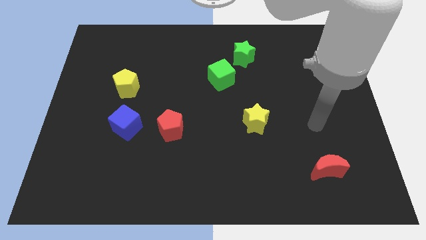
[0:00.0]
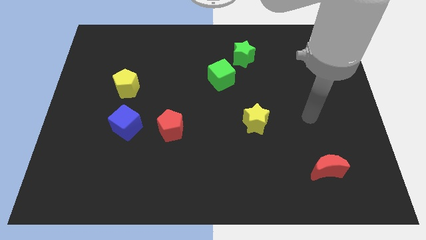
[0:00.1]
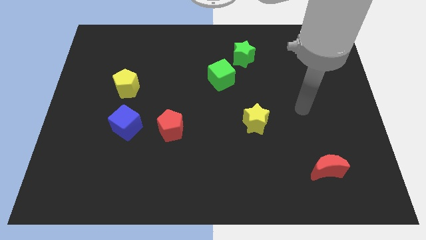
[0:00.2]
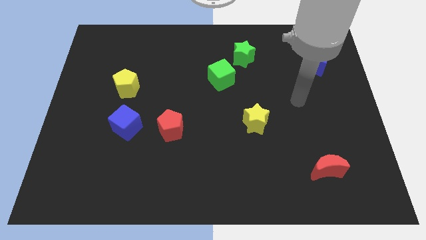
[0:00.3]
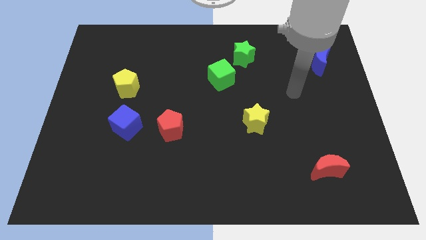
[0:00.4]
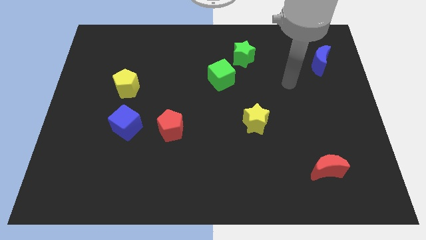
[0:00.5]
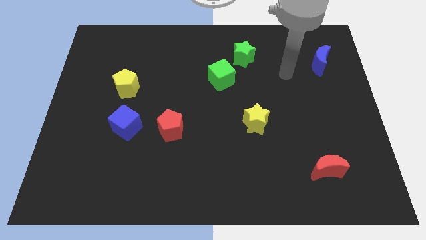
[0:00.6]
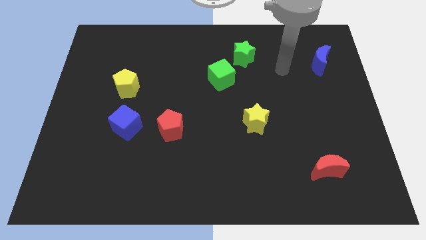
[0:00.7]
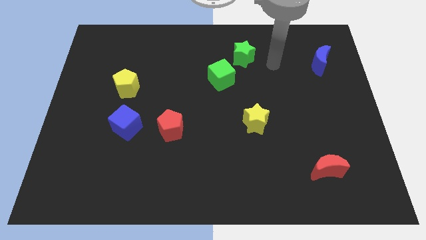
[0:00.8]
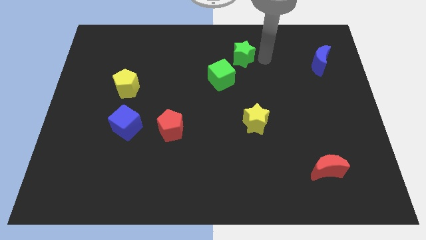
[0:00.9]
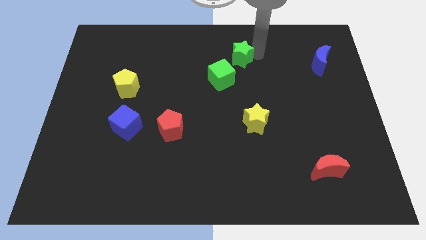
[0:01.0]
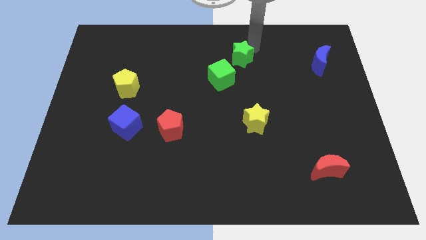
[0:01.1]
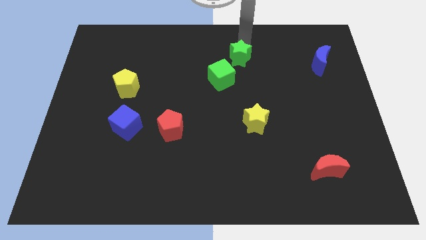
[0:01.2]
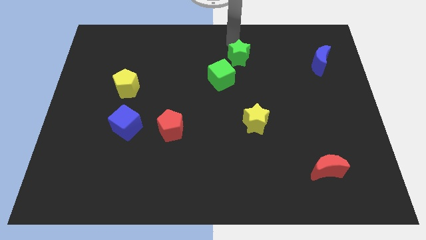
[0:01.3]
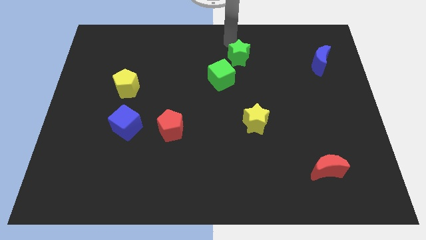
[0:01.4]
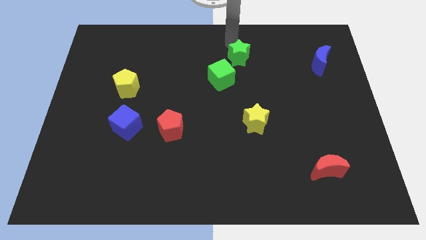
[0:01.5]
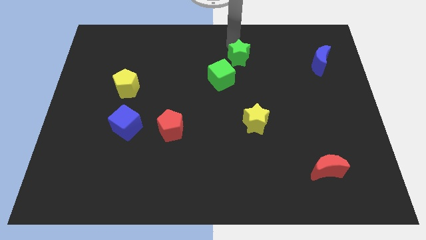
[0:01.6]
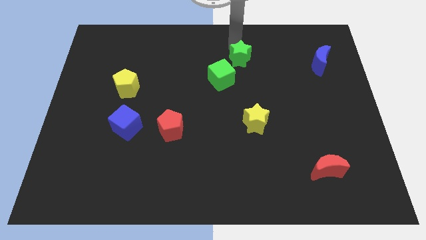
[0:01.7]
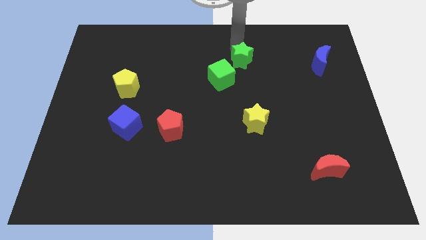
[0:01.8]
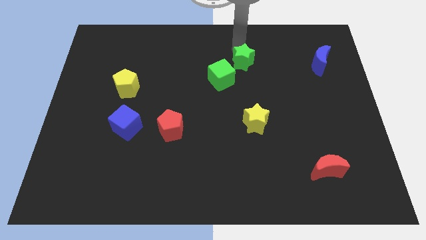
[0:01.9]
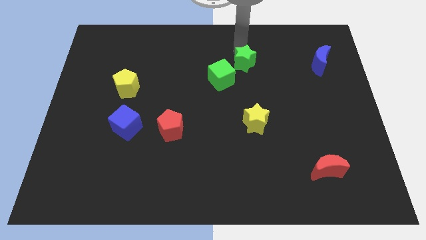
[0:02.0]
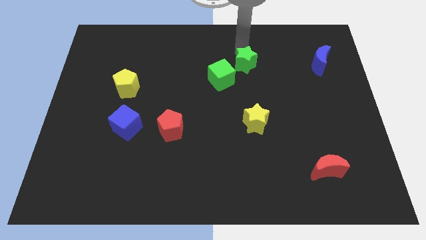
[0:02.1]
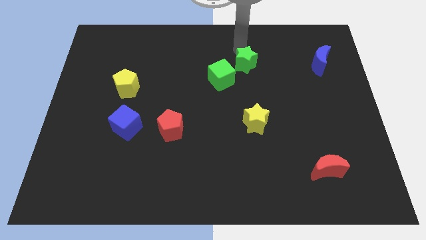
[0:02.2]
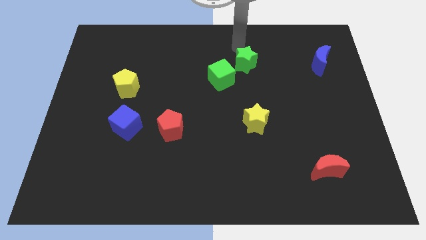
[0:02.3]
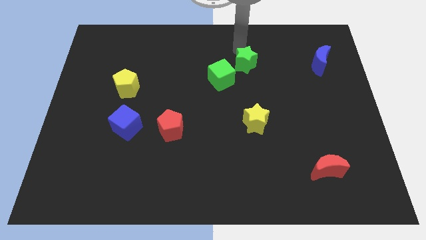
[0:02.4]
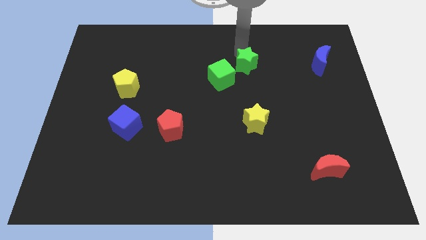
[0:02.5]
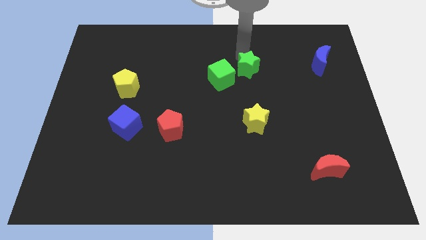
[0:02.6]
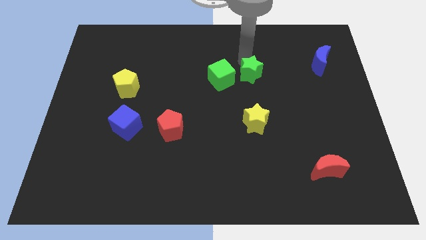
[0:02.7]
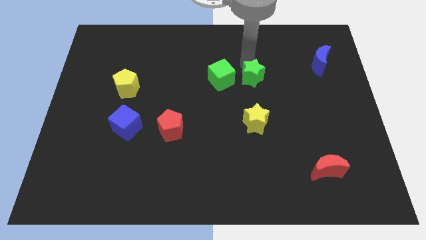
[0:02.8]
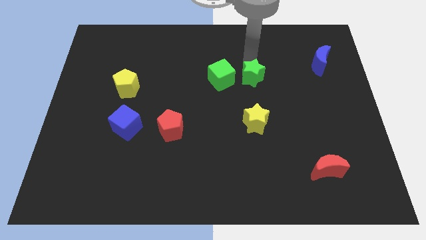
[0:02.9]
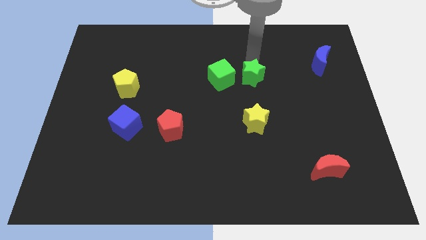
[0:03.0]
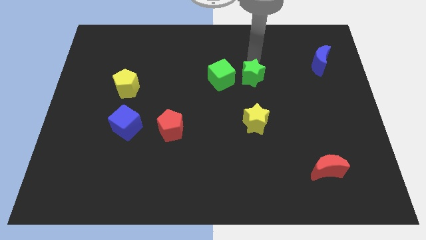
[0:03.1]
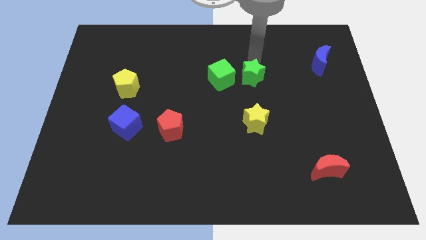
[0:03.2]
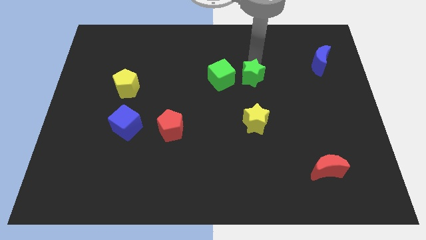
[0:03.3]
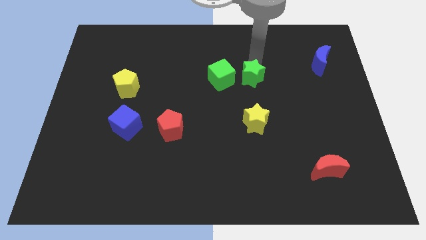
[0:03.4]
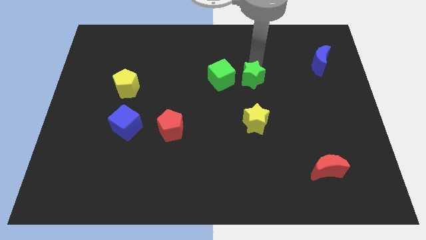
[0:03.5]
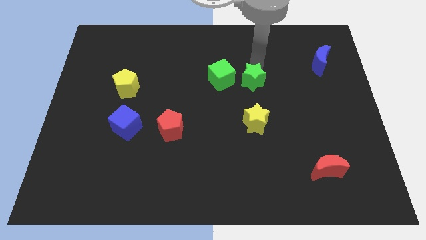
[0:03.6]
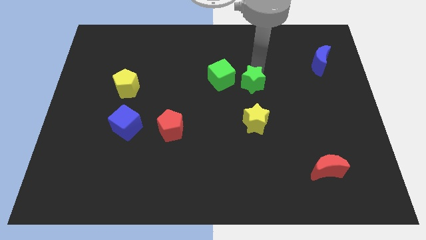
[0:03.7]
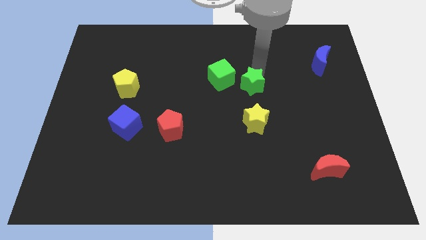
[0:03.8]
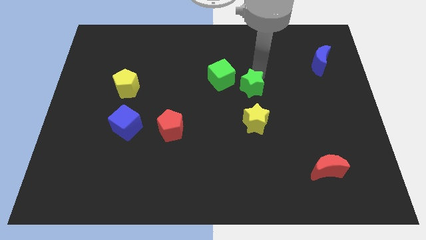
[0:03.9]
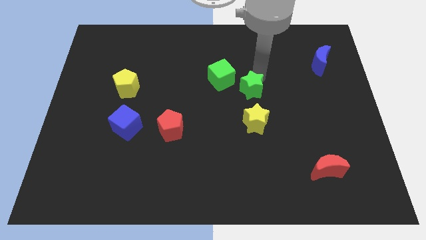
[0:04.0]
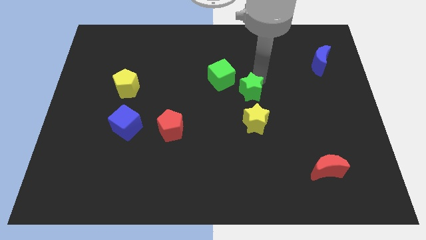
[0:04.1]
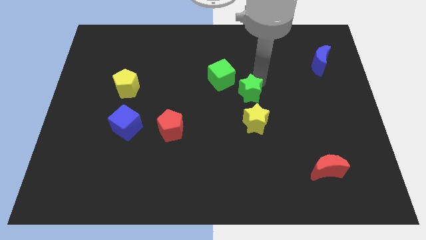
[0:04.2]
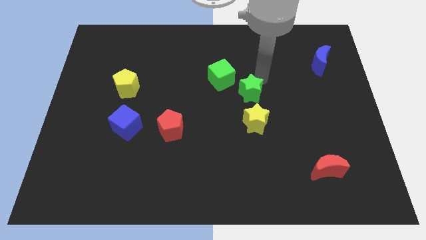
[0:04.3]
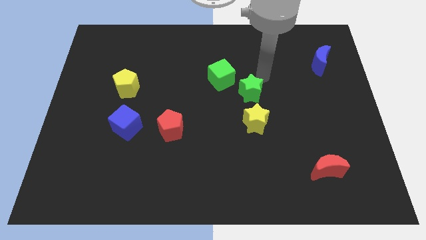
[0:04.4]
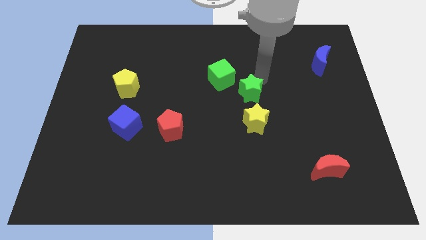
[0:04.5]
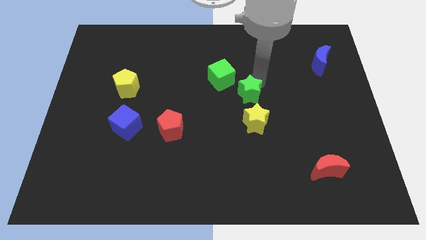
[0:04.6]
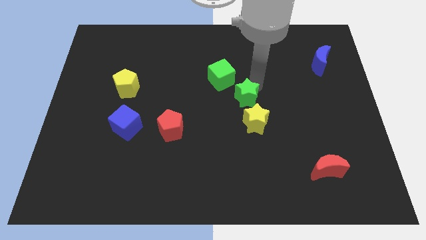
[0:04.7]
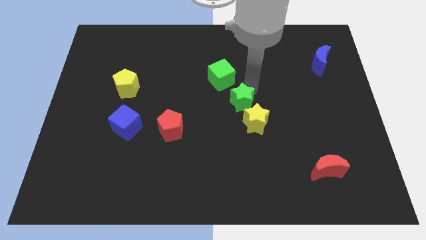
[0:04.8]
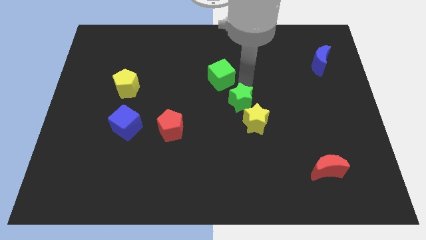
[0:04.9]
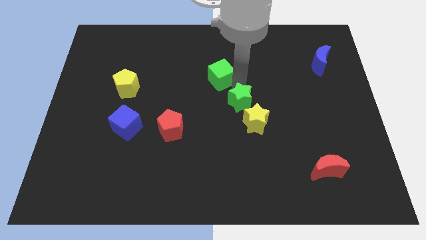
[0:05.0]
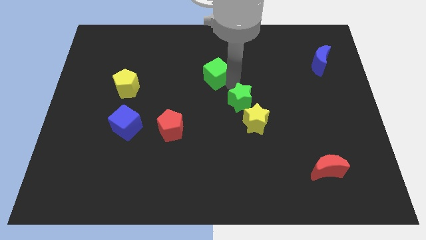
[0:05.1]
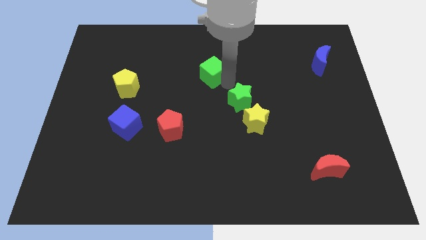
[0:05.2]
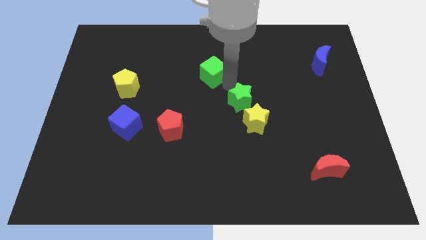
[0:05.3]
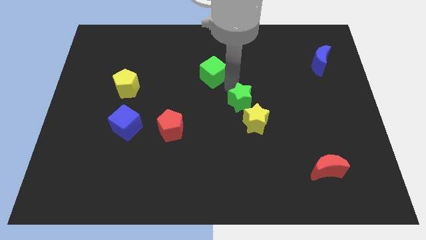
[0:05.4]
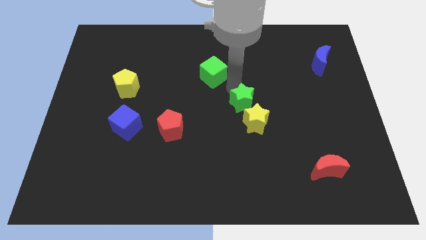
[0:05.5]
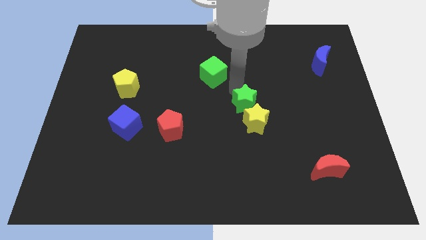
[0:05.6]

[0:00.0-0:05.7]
push the green star close to the yellow star

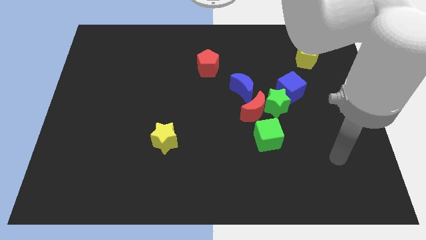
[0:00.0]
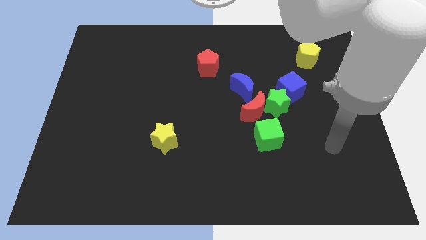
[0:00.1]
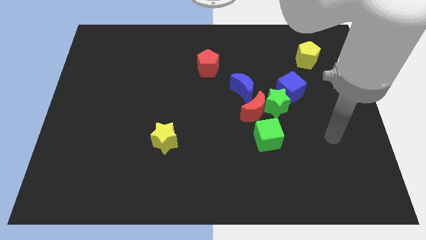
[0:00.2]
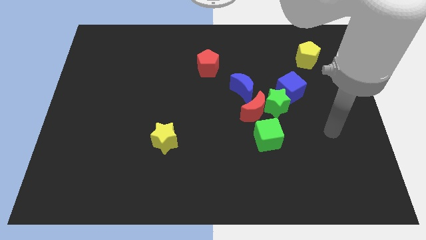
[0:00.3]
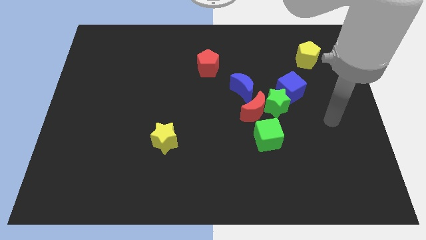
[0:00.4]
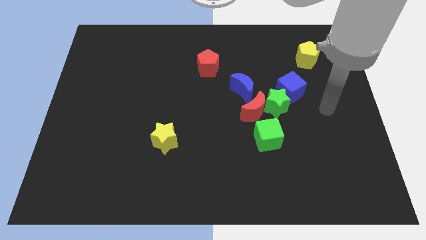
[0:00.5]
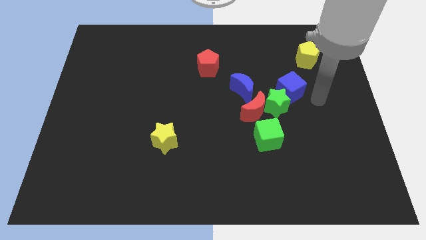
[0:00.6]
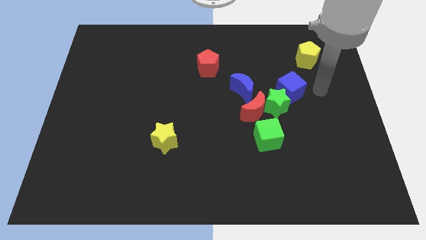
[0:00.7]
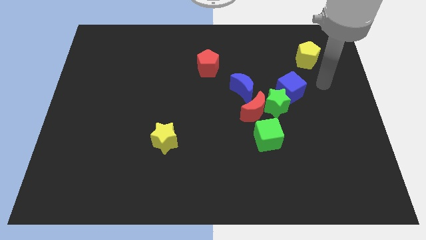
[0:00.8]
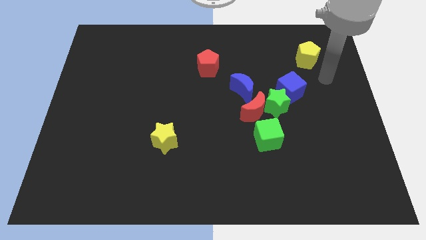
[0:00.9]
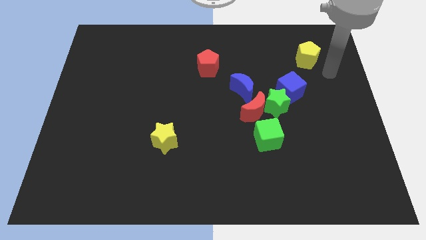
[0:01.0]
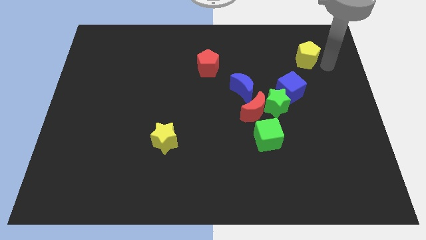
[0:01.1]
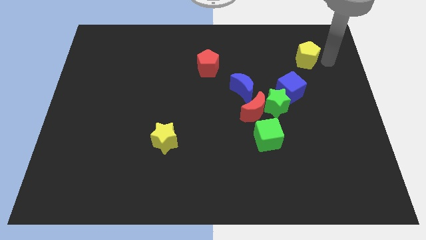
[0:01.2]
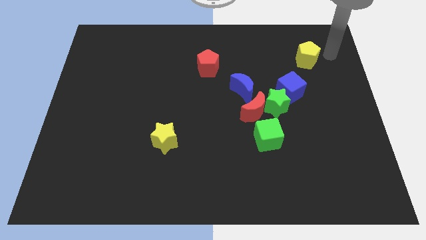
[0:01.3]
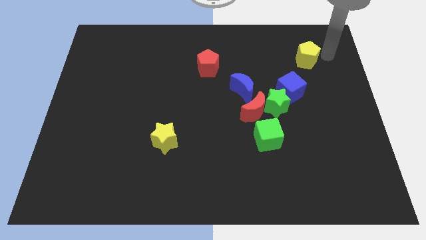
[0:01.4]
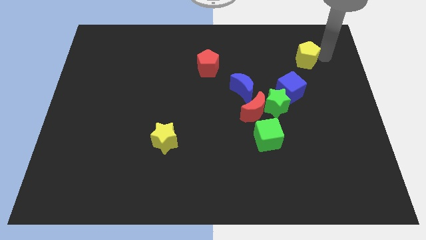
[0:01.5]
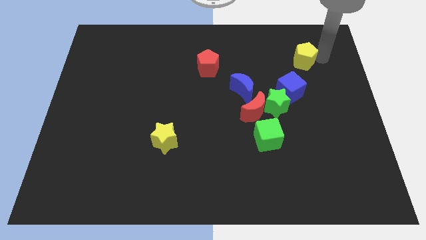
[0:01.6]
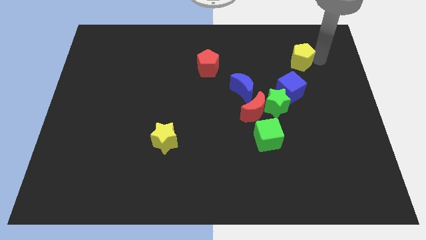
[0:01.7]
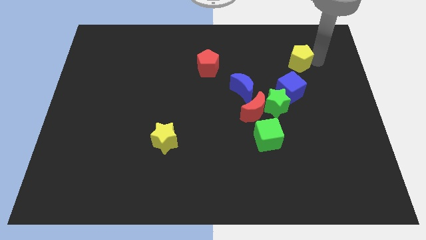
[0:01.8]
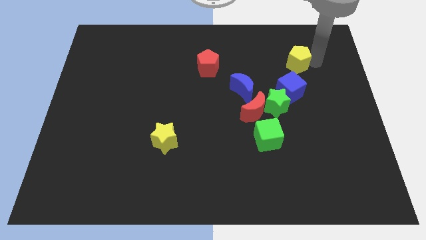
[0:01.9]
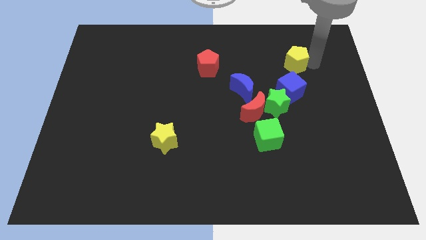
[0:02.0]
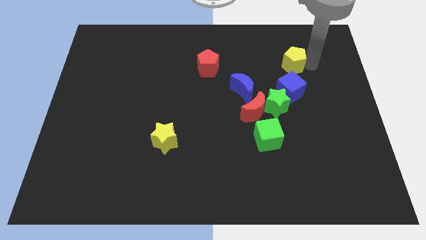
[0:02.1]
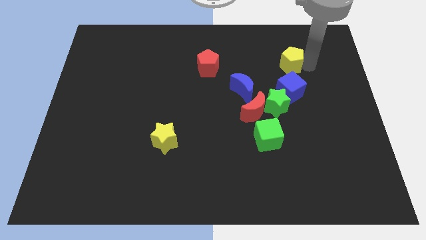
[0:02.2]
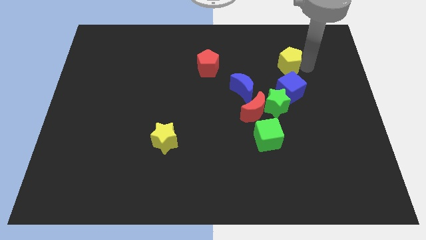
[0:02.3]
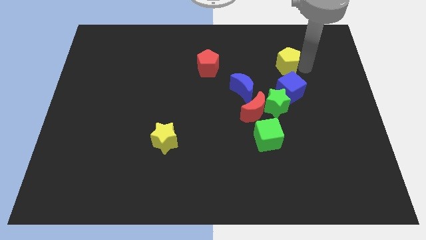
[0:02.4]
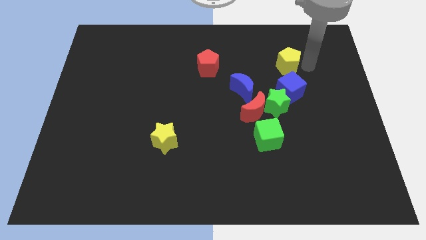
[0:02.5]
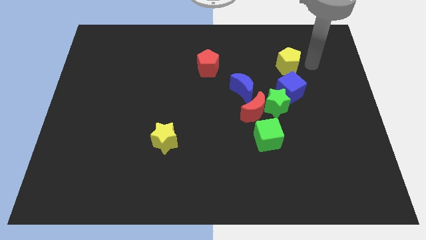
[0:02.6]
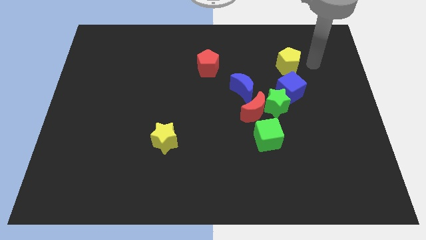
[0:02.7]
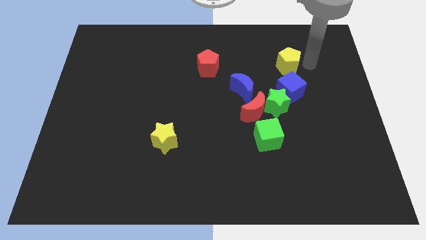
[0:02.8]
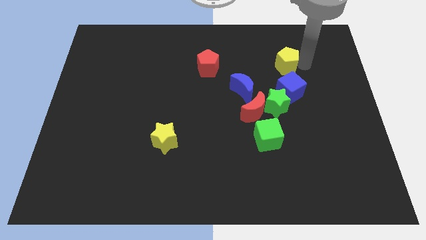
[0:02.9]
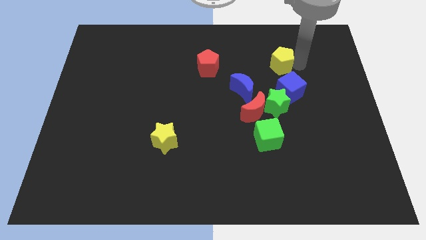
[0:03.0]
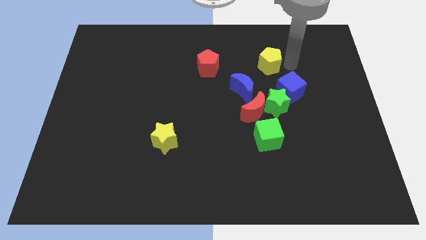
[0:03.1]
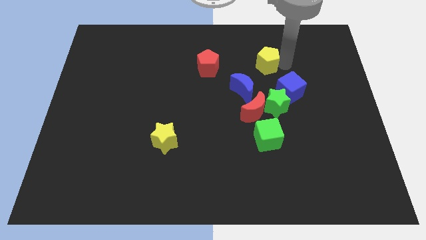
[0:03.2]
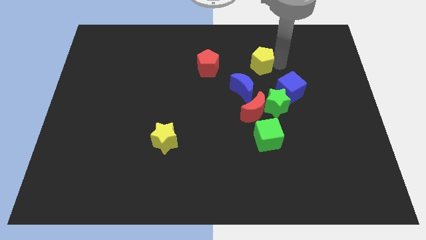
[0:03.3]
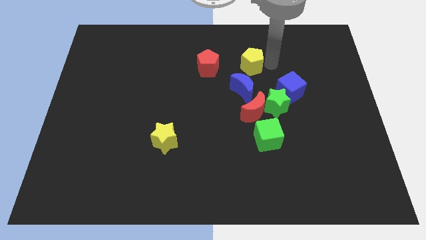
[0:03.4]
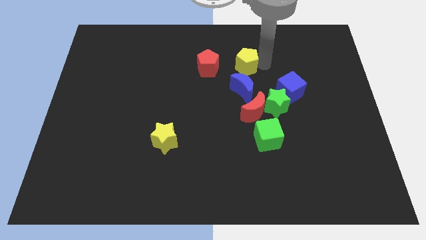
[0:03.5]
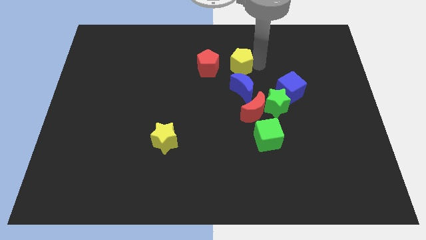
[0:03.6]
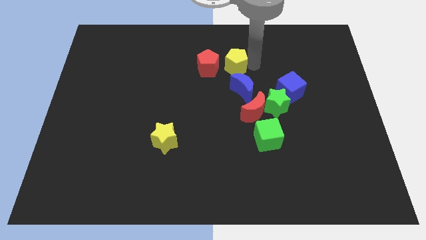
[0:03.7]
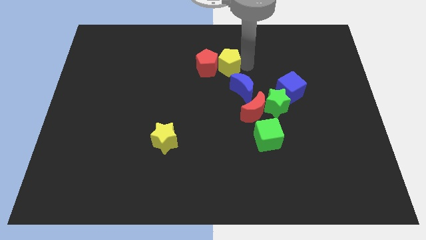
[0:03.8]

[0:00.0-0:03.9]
put the yellow pentagon towards the red pentagon
